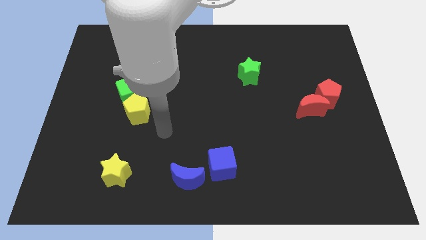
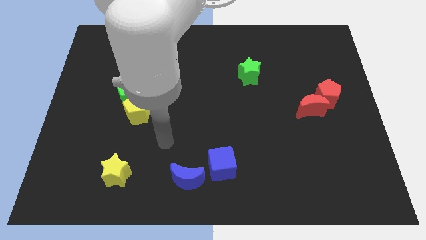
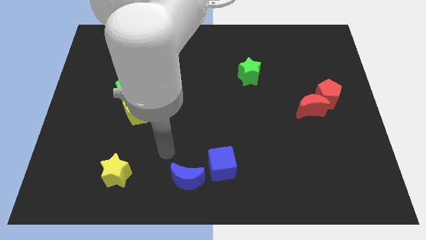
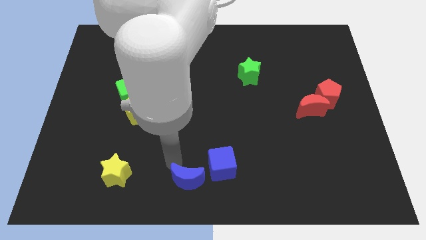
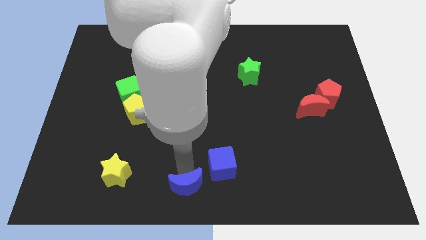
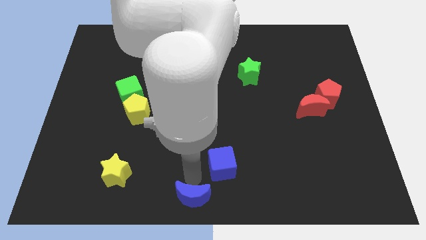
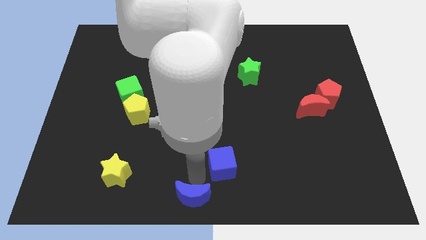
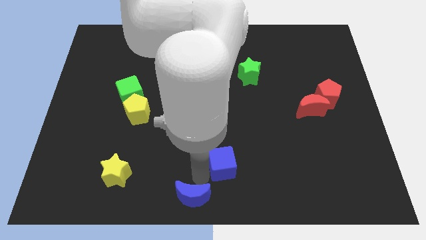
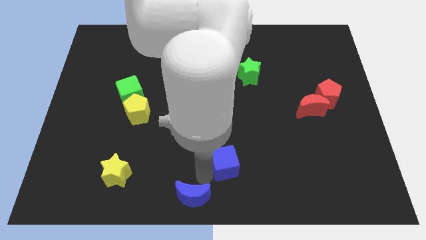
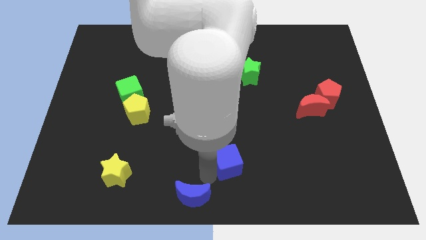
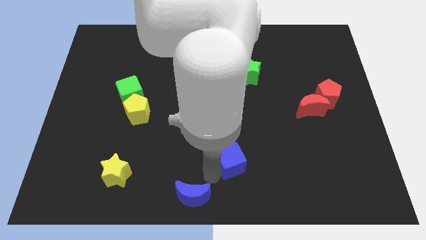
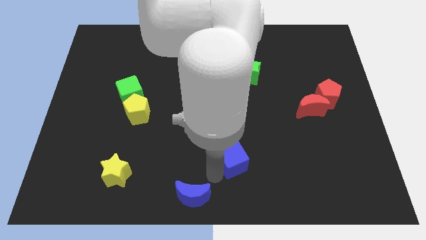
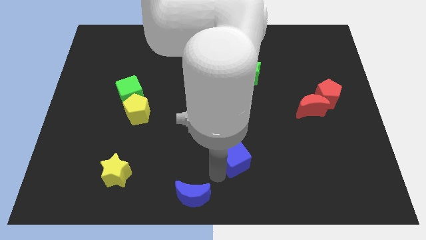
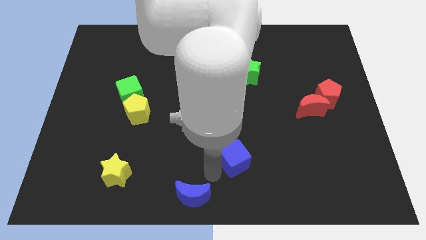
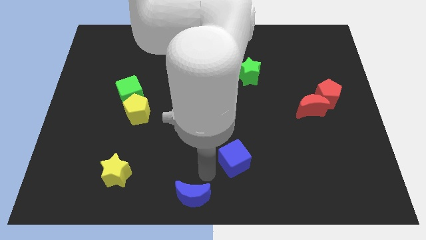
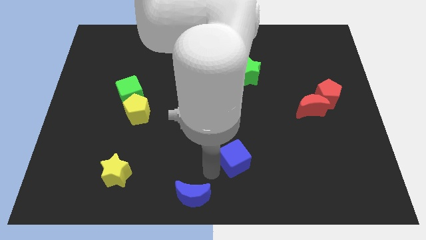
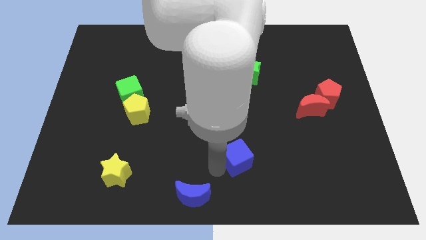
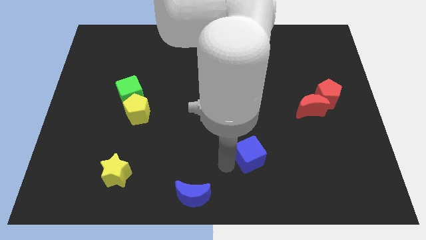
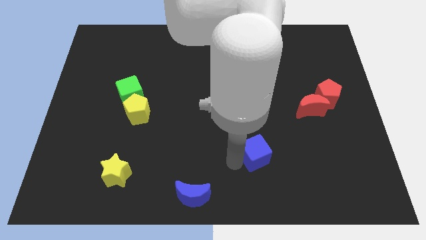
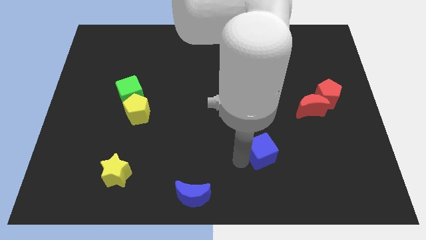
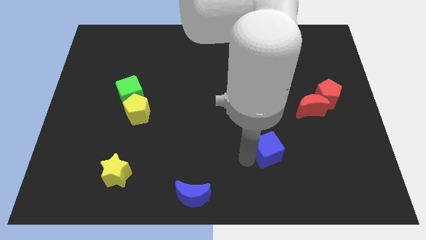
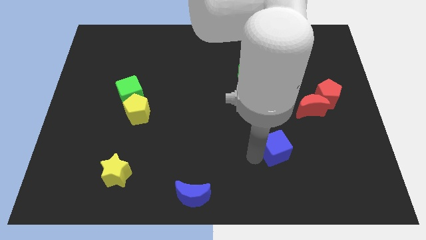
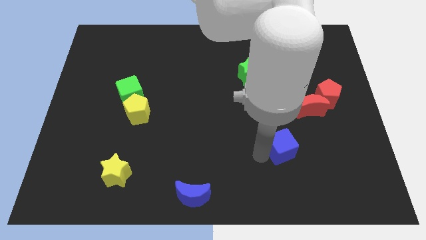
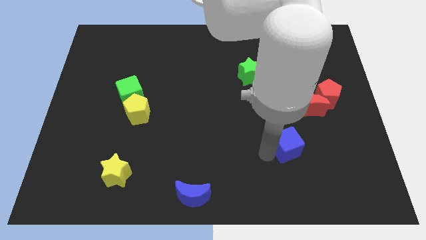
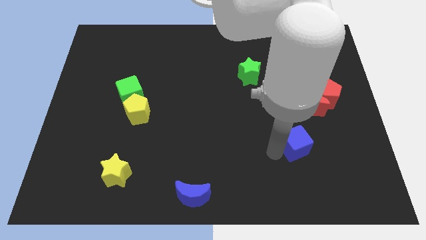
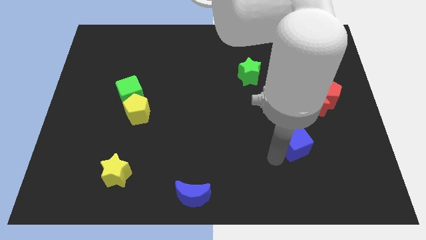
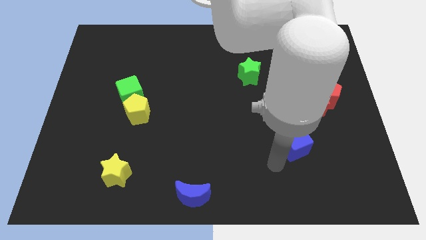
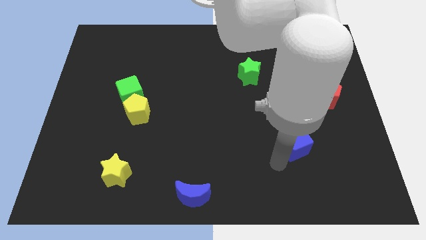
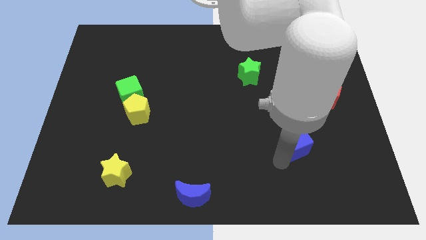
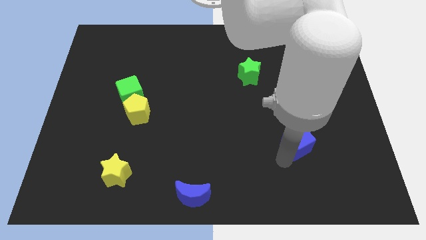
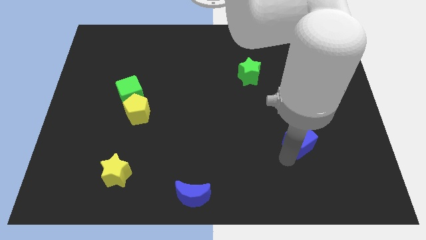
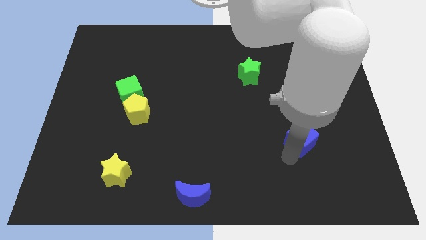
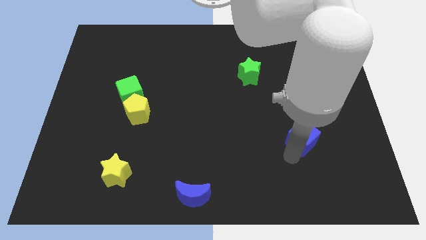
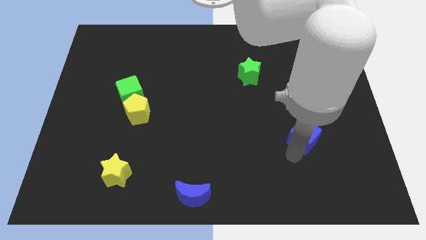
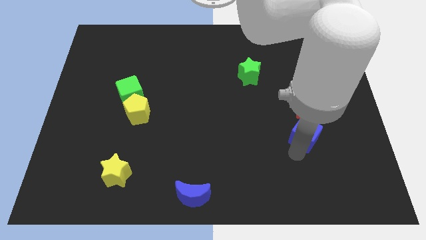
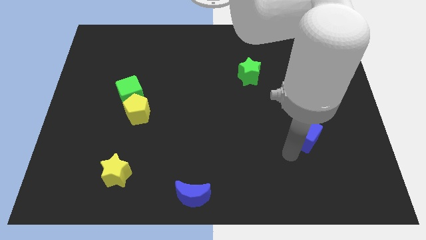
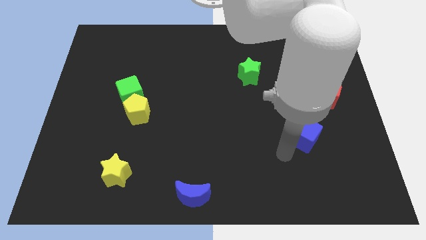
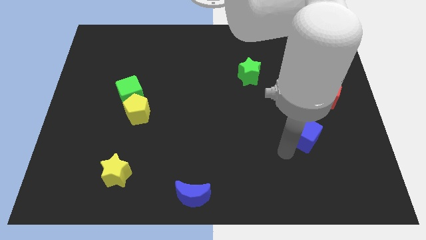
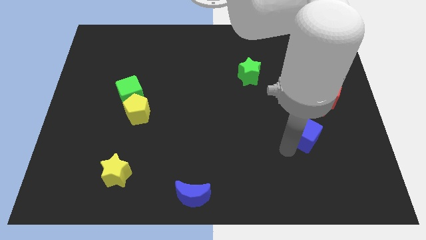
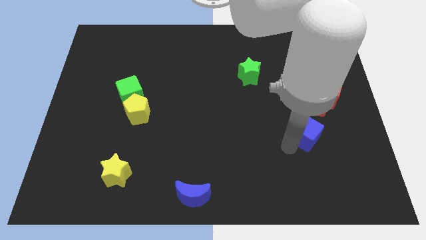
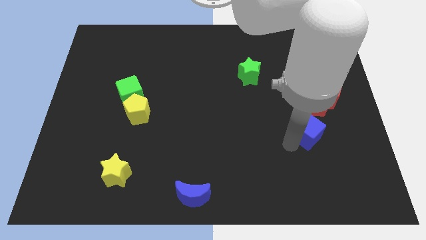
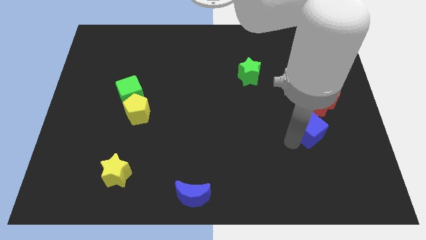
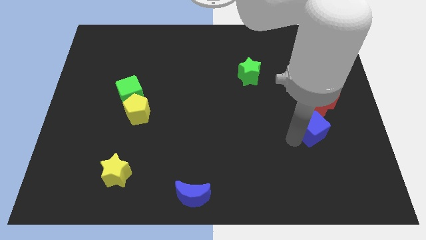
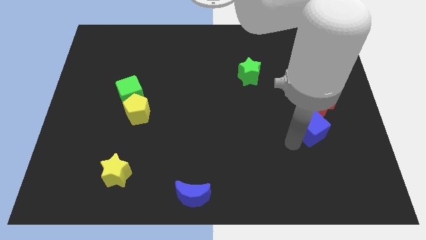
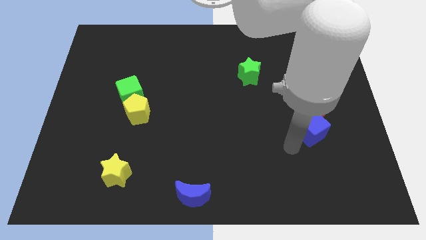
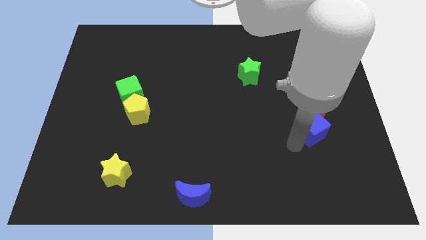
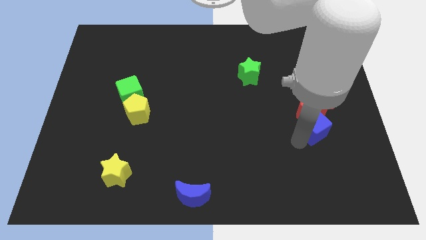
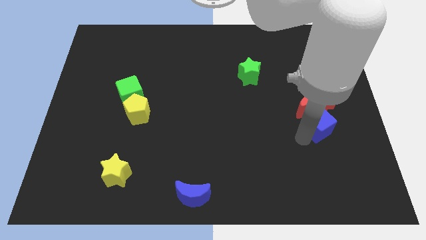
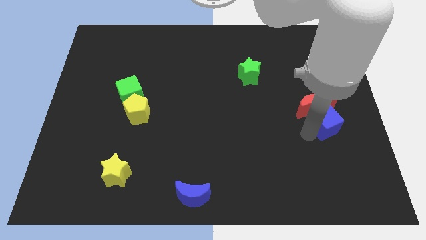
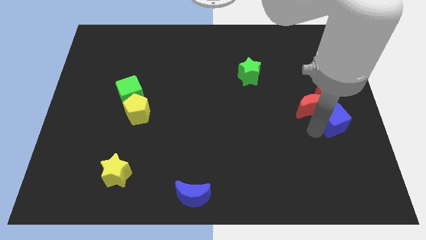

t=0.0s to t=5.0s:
slide the blue cube to the right side of the board

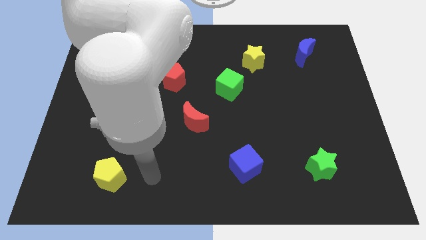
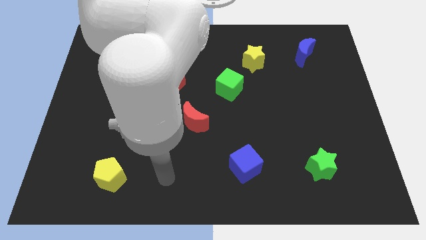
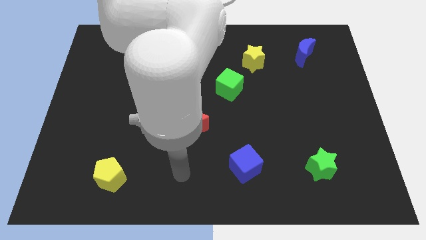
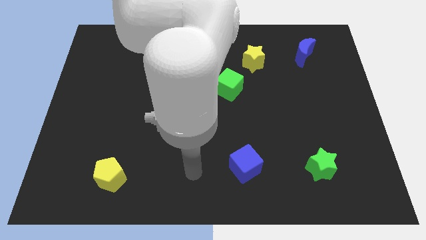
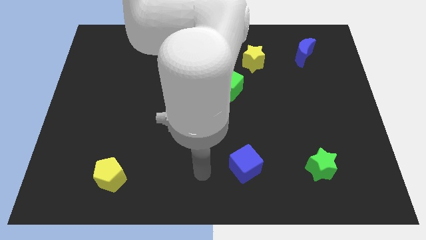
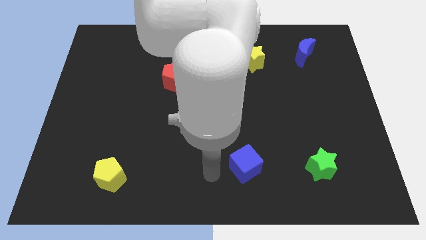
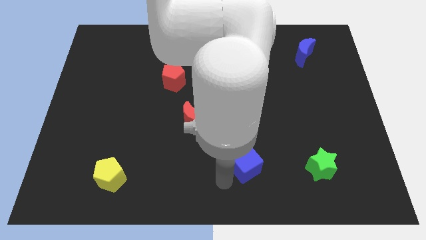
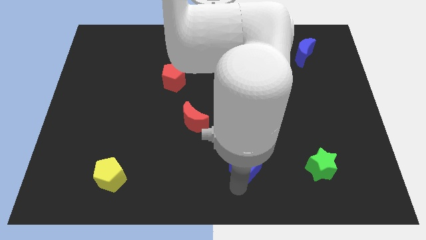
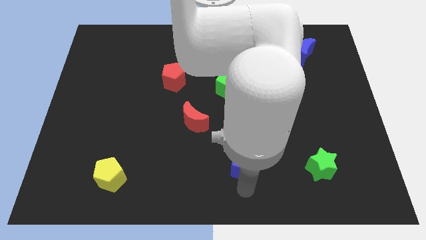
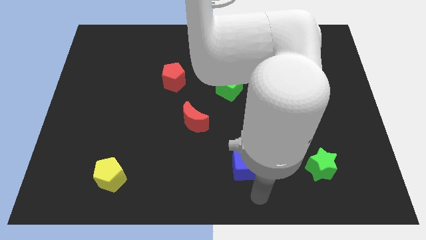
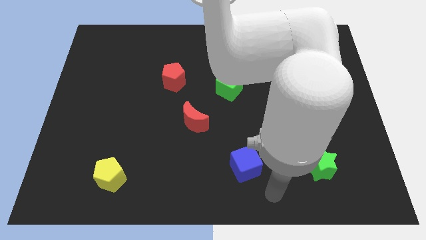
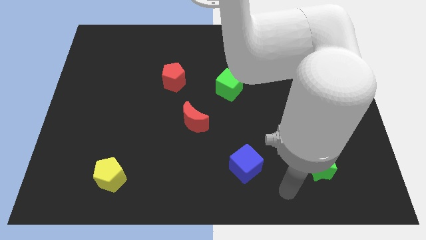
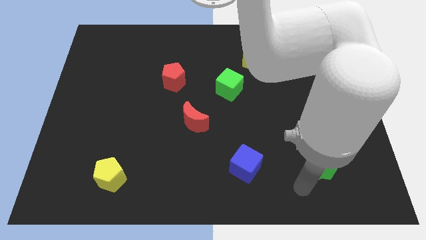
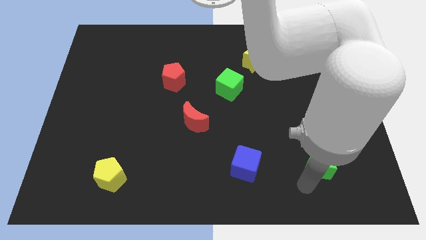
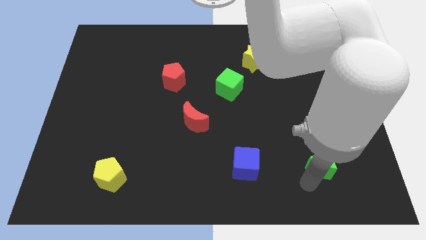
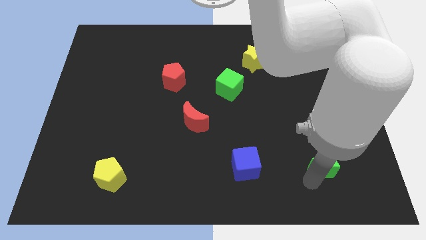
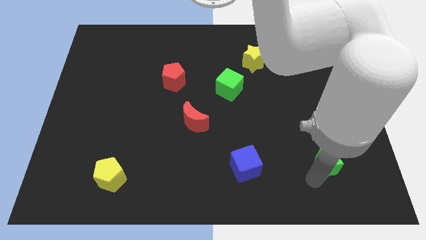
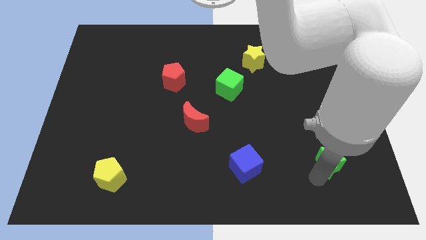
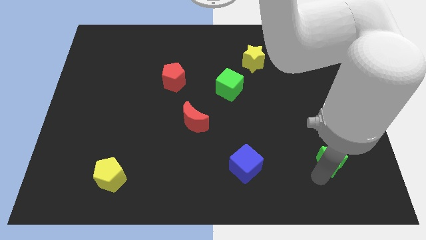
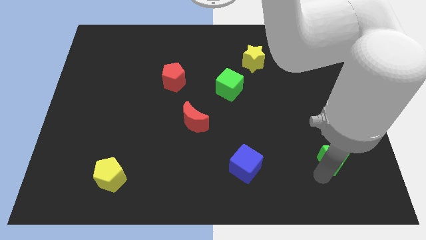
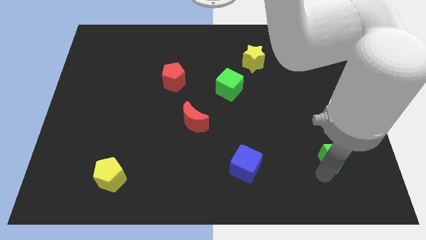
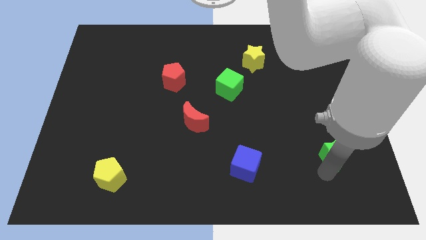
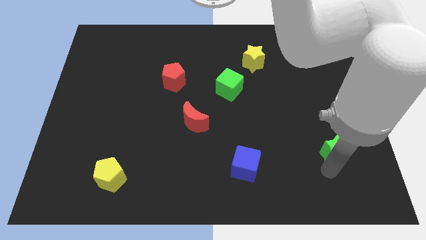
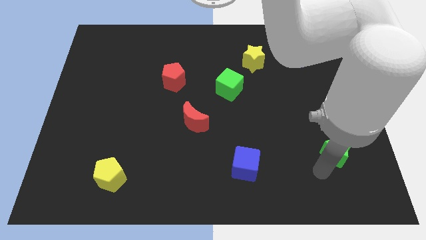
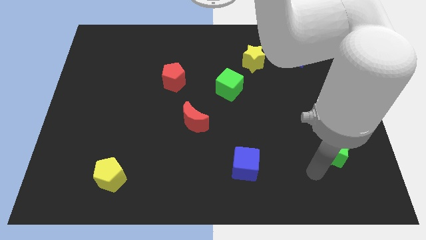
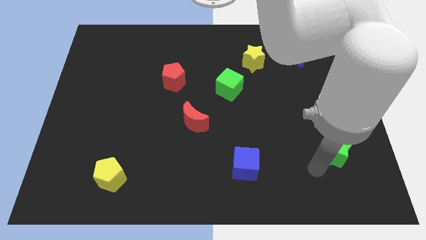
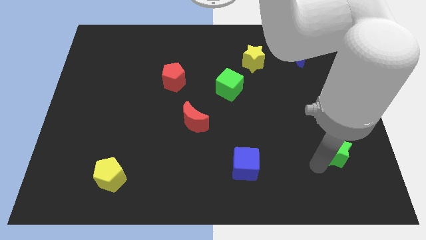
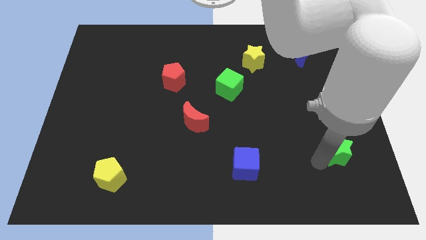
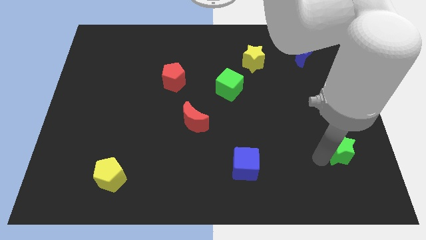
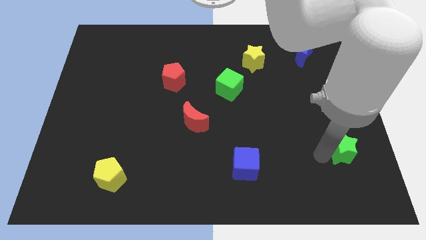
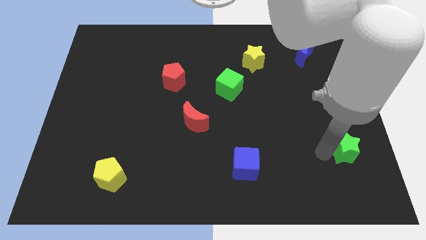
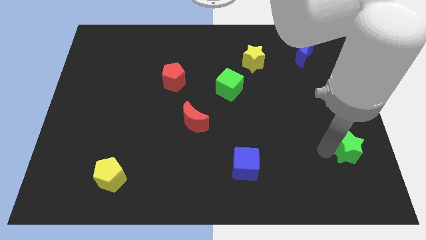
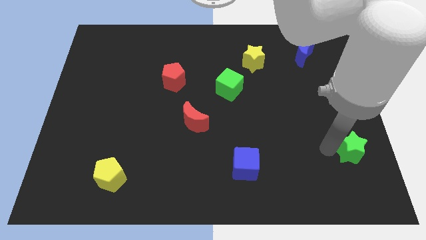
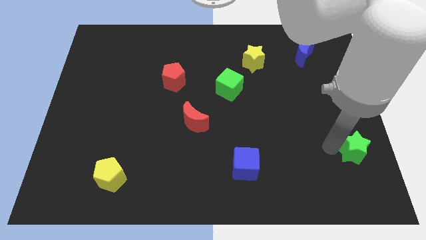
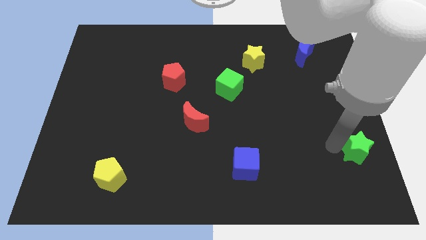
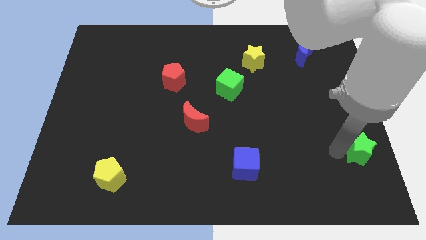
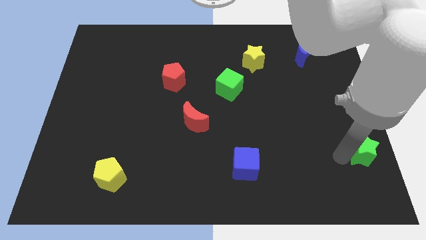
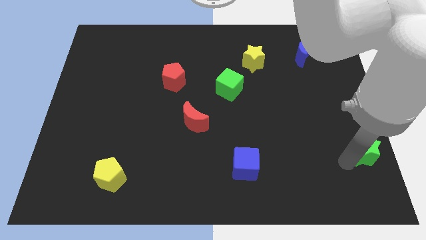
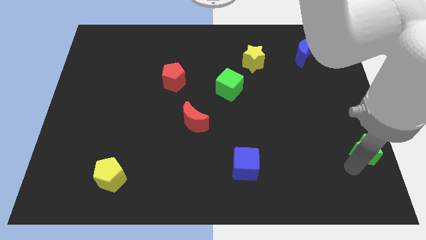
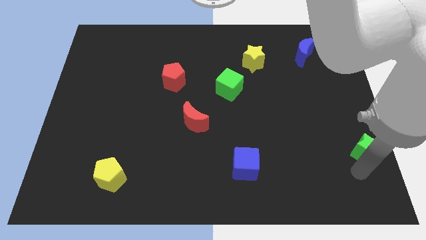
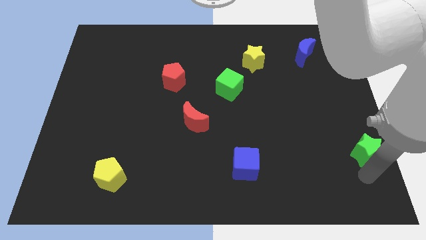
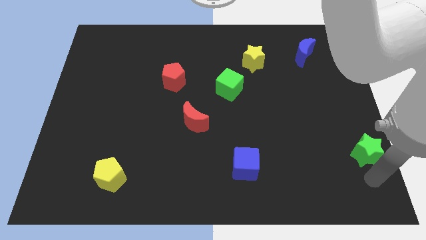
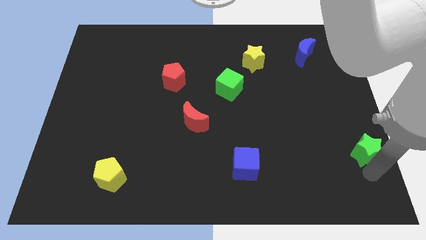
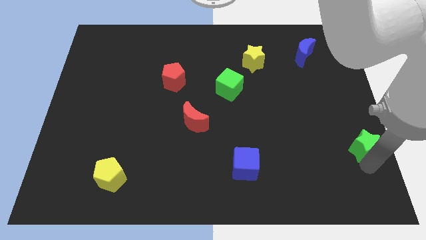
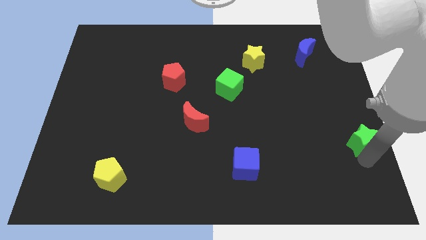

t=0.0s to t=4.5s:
move the green star to the right side
